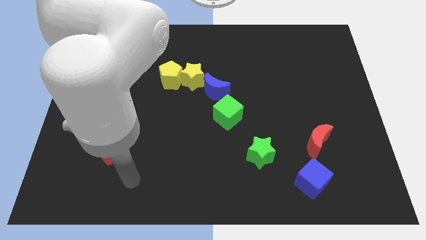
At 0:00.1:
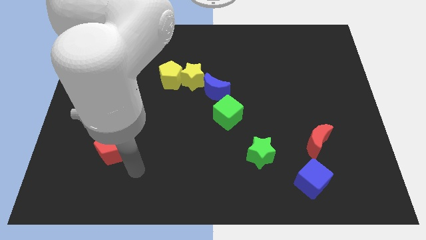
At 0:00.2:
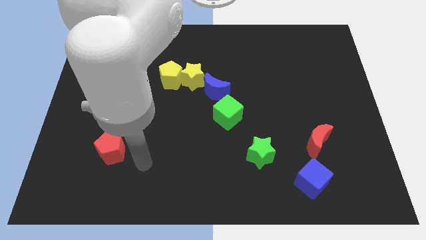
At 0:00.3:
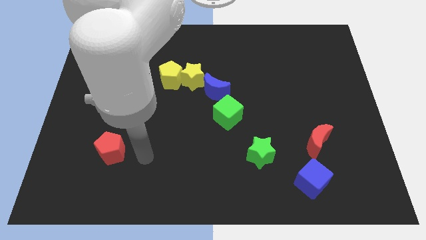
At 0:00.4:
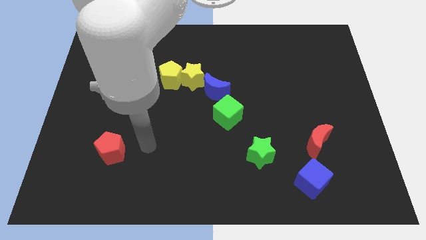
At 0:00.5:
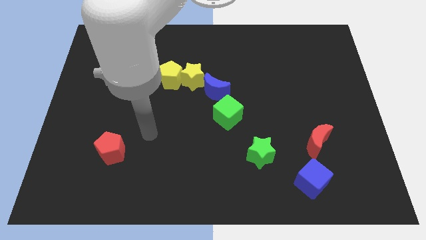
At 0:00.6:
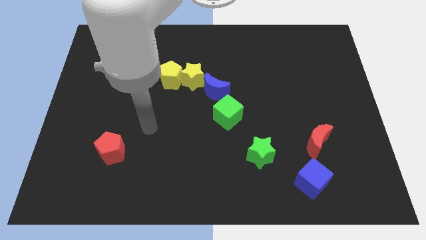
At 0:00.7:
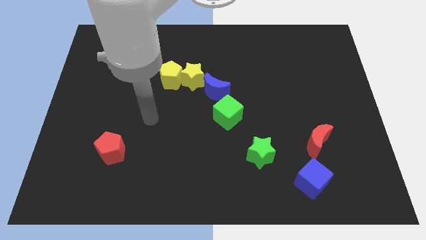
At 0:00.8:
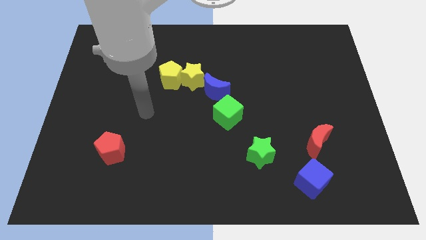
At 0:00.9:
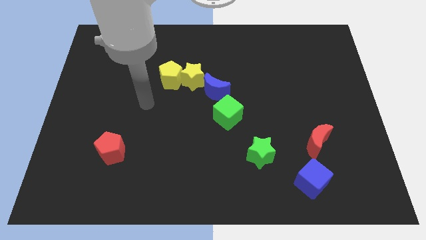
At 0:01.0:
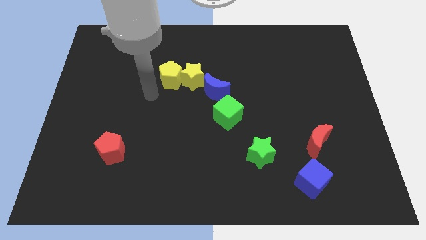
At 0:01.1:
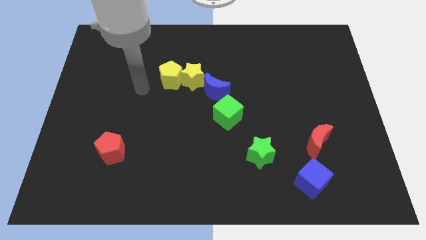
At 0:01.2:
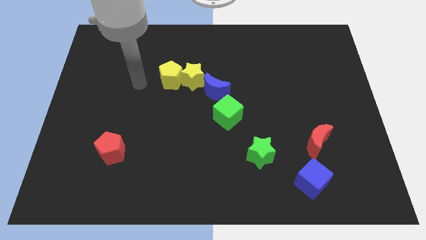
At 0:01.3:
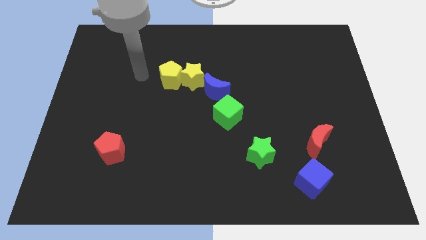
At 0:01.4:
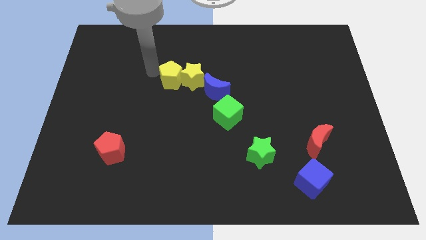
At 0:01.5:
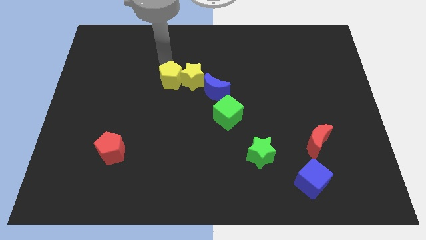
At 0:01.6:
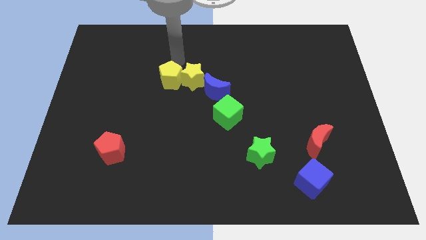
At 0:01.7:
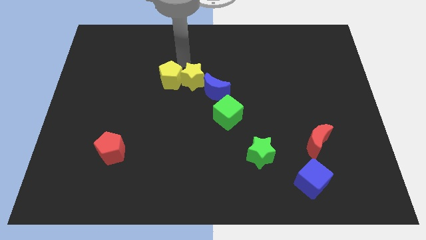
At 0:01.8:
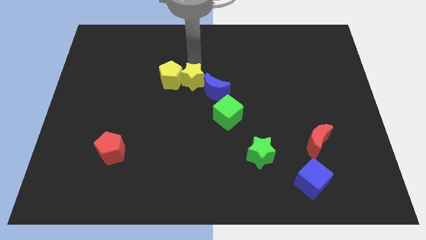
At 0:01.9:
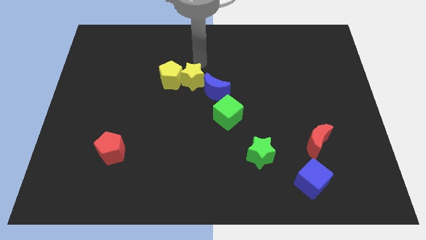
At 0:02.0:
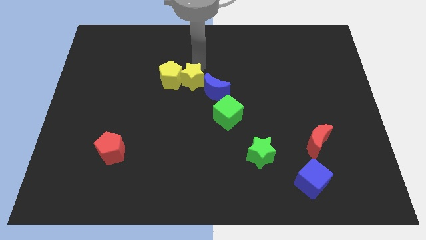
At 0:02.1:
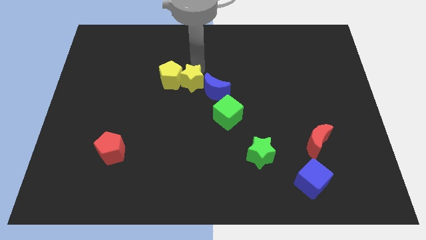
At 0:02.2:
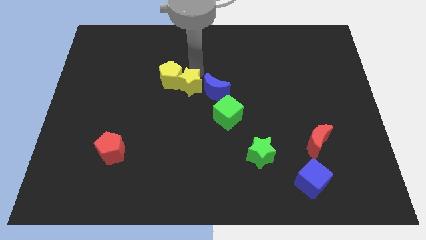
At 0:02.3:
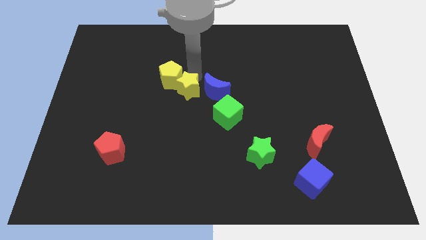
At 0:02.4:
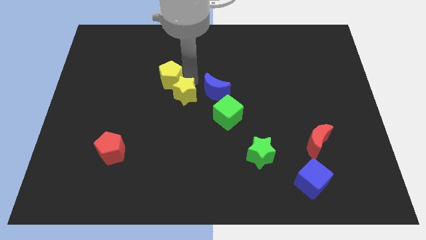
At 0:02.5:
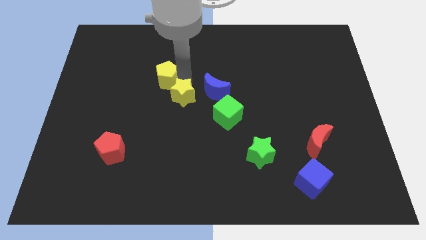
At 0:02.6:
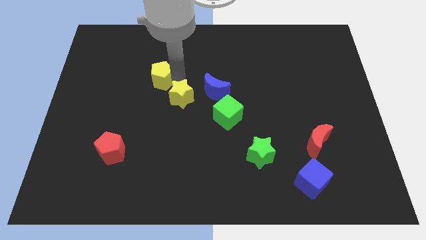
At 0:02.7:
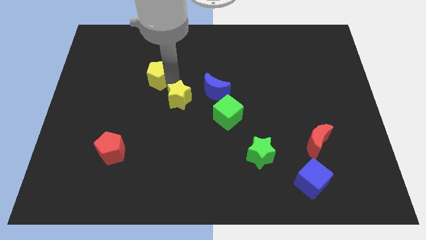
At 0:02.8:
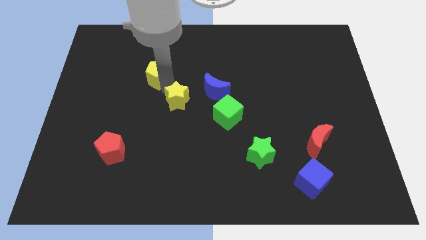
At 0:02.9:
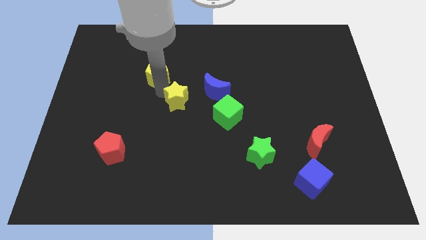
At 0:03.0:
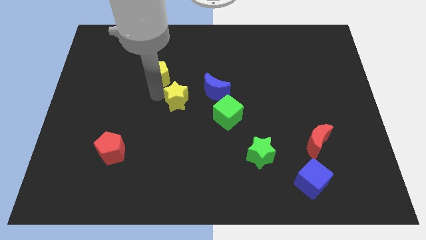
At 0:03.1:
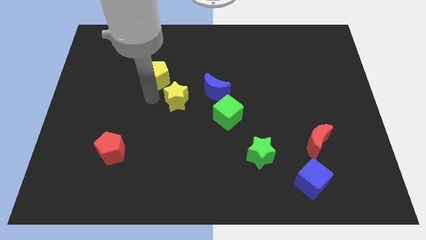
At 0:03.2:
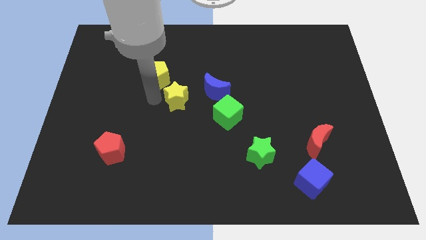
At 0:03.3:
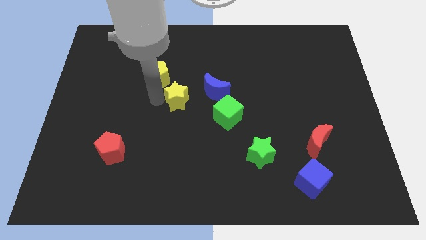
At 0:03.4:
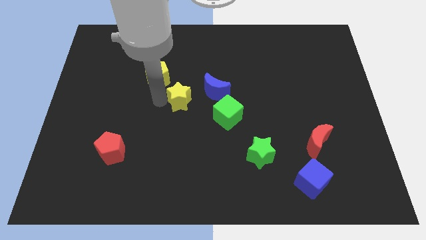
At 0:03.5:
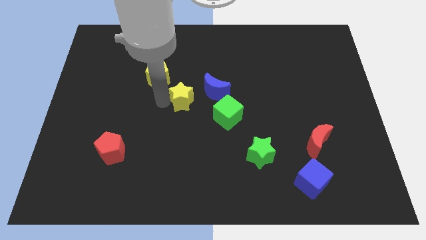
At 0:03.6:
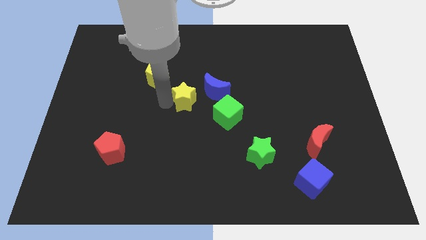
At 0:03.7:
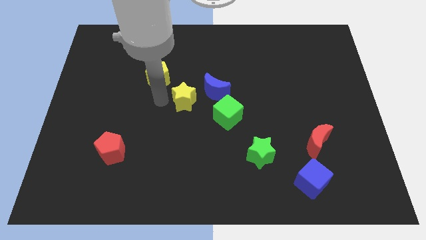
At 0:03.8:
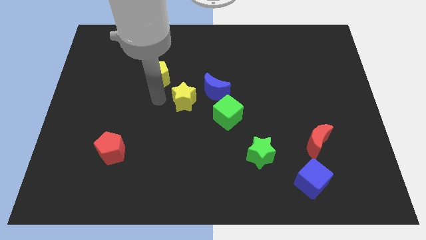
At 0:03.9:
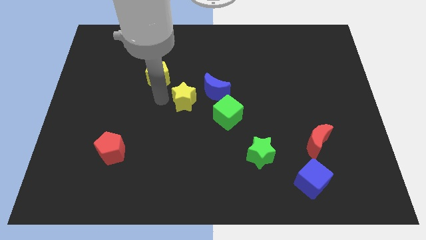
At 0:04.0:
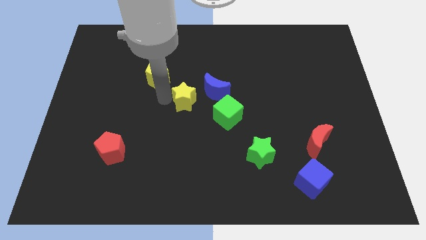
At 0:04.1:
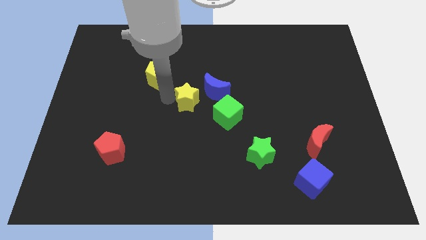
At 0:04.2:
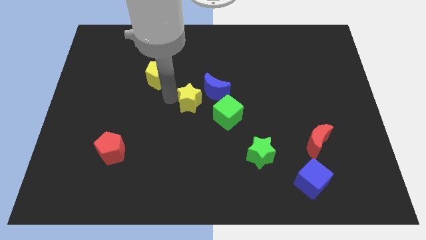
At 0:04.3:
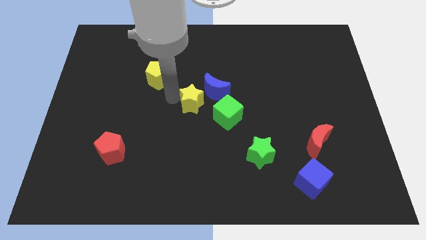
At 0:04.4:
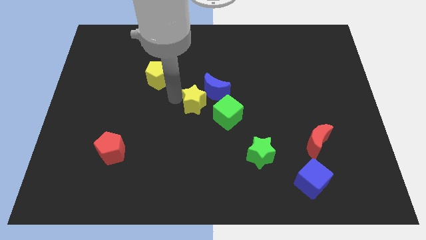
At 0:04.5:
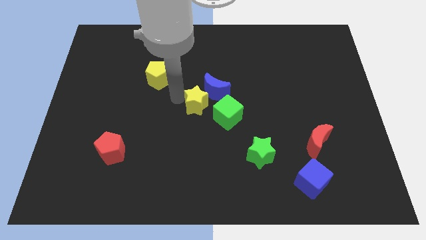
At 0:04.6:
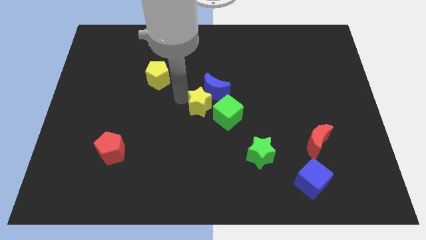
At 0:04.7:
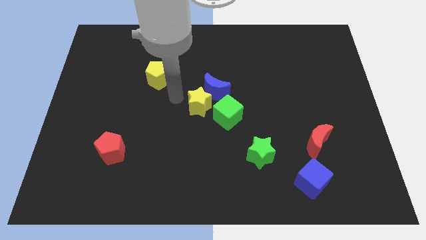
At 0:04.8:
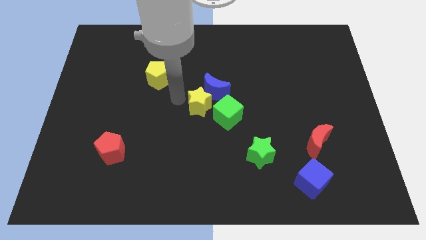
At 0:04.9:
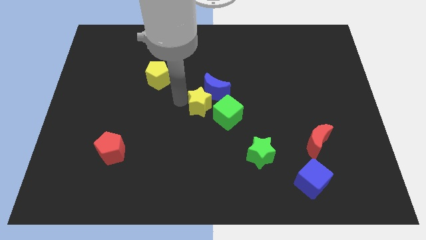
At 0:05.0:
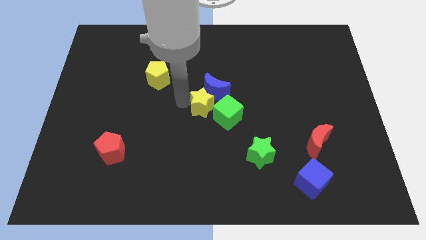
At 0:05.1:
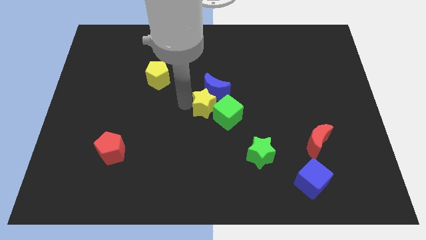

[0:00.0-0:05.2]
move the yellow star close to the green cube

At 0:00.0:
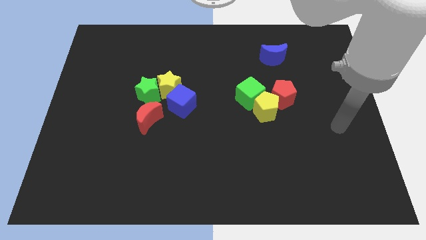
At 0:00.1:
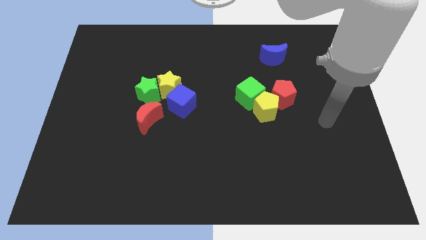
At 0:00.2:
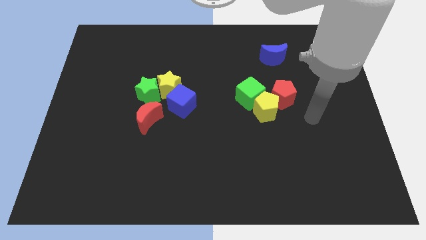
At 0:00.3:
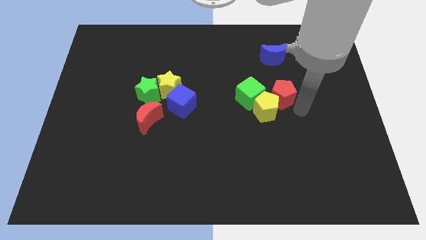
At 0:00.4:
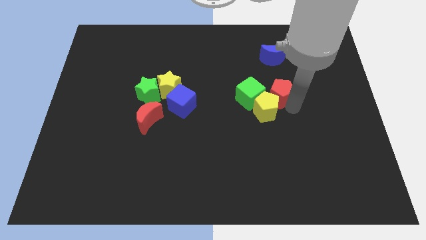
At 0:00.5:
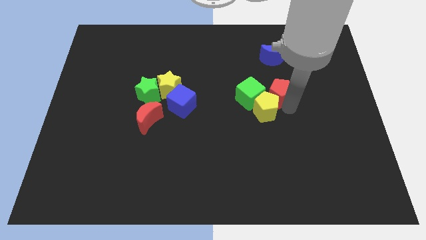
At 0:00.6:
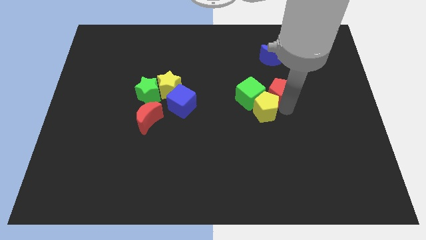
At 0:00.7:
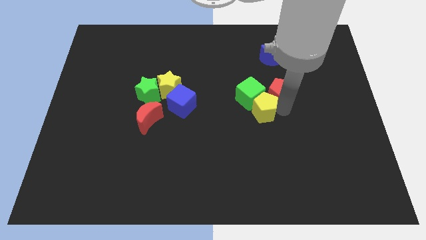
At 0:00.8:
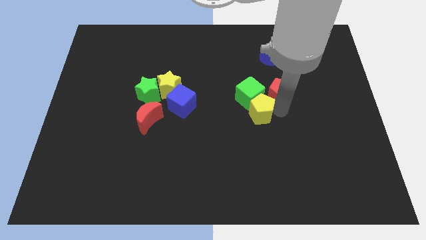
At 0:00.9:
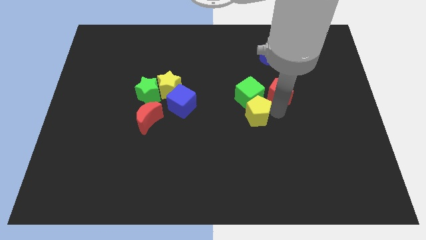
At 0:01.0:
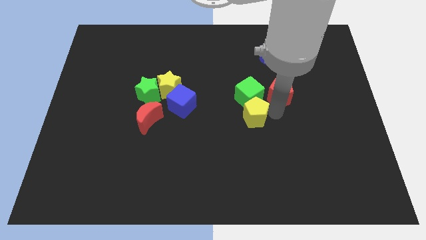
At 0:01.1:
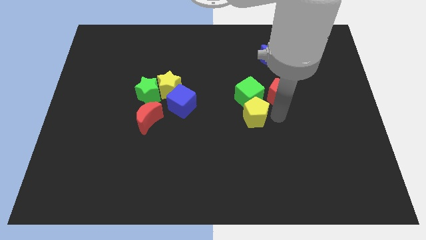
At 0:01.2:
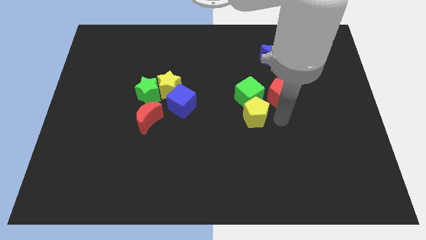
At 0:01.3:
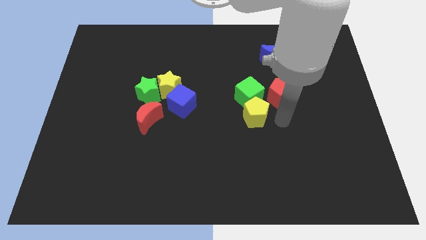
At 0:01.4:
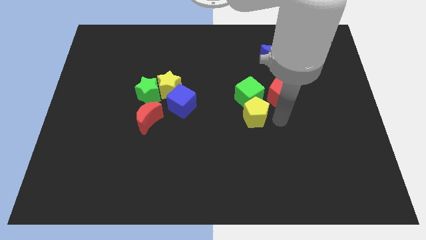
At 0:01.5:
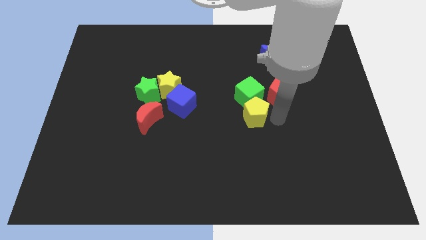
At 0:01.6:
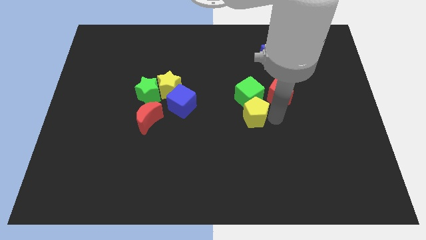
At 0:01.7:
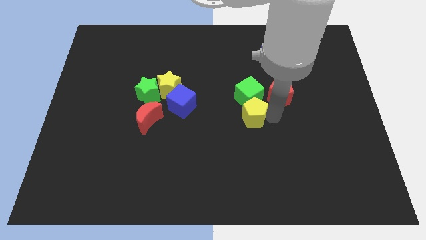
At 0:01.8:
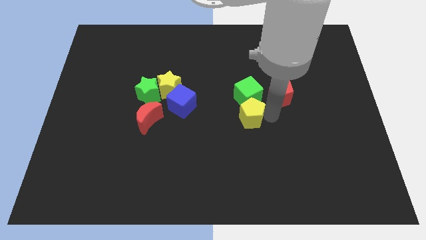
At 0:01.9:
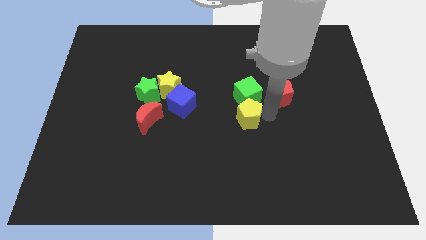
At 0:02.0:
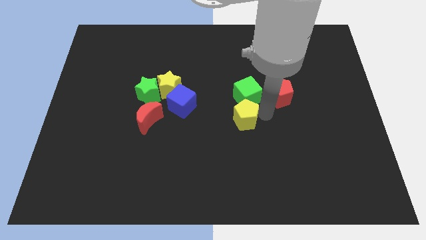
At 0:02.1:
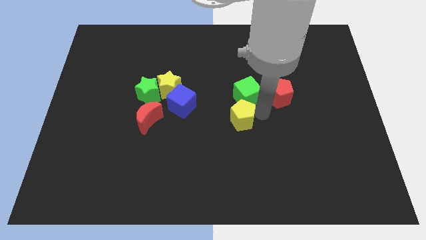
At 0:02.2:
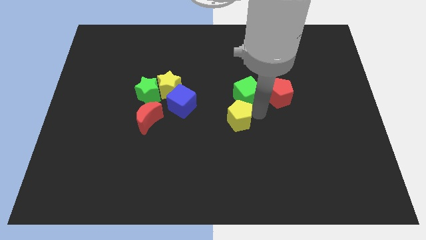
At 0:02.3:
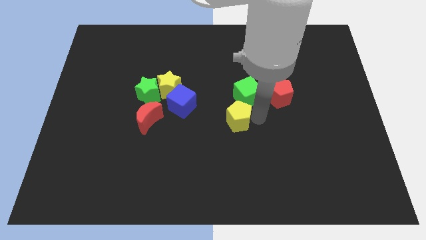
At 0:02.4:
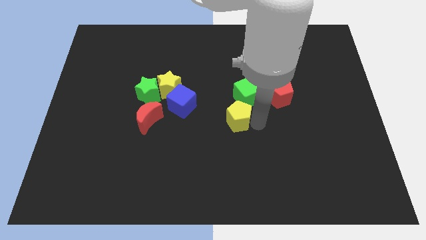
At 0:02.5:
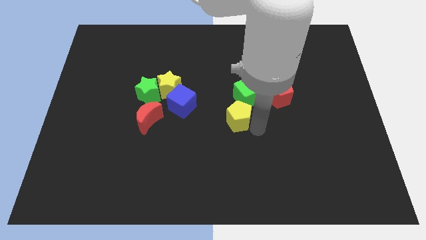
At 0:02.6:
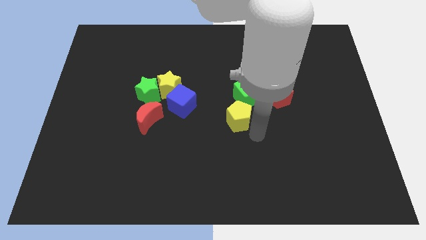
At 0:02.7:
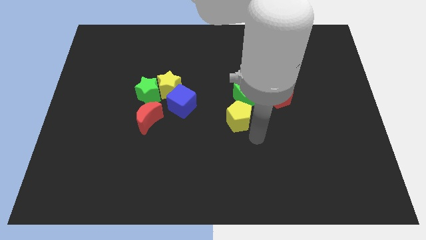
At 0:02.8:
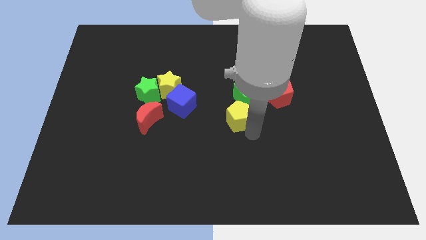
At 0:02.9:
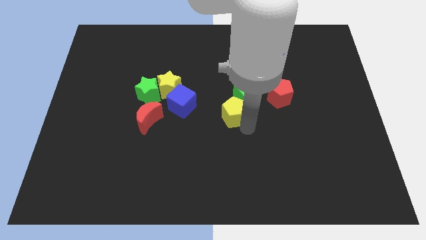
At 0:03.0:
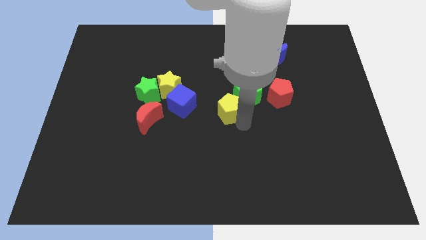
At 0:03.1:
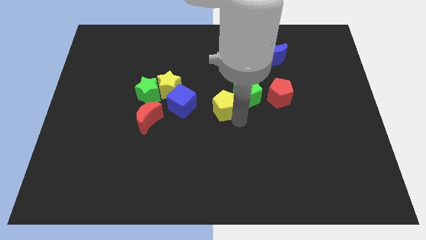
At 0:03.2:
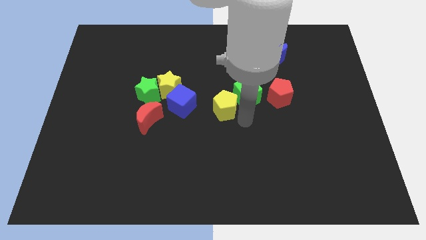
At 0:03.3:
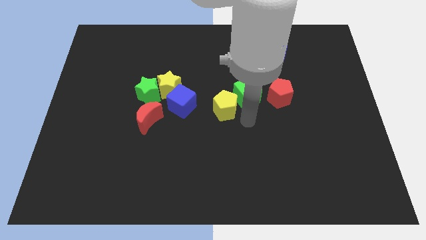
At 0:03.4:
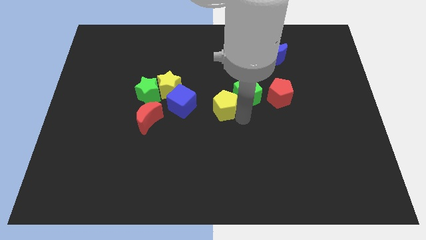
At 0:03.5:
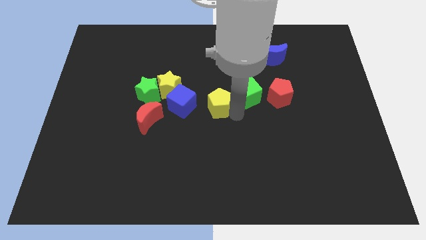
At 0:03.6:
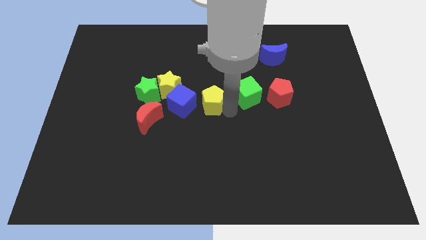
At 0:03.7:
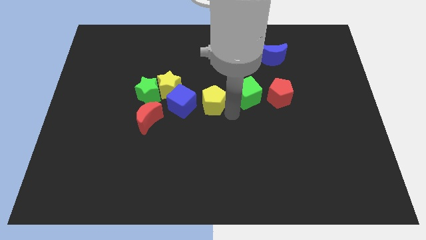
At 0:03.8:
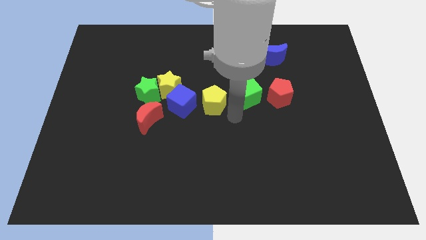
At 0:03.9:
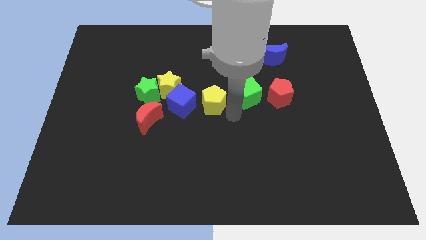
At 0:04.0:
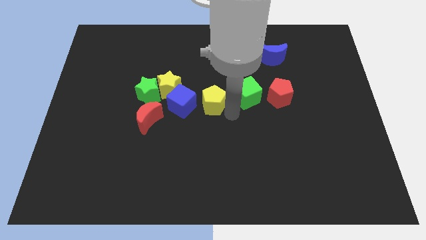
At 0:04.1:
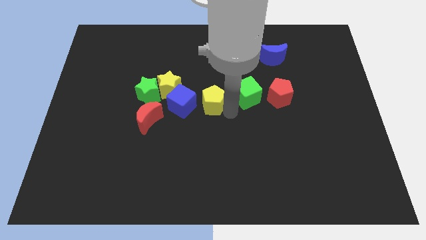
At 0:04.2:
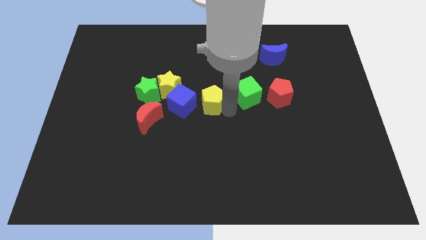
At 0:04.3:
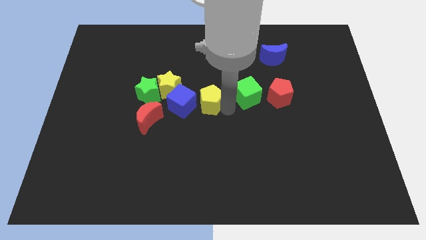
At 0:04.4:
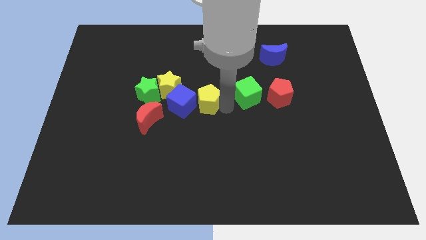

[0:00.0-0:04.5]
move the yellow pentagon next to the blue cube
